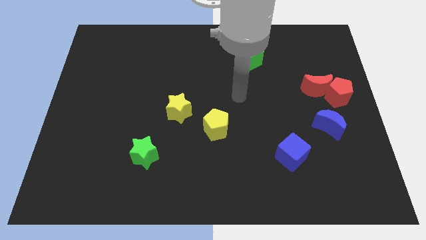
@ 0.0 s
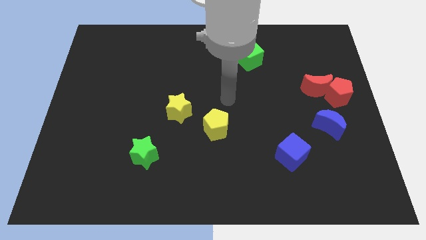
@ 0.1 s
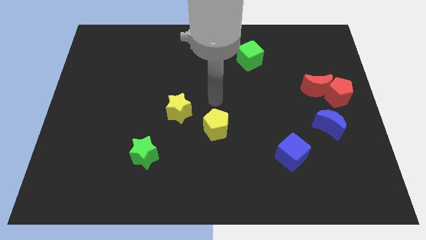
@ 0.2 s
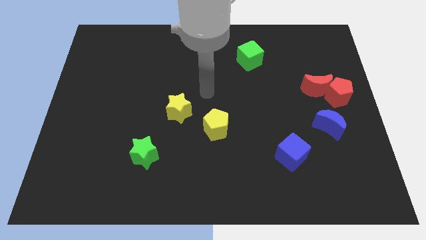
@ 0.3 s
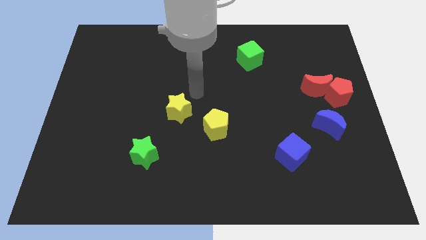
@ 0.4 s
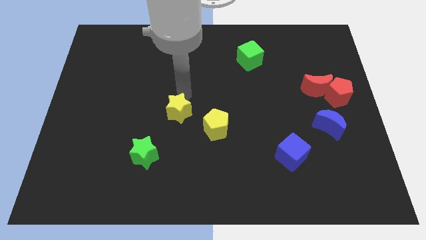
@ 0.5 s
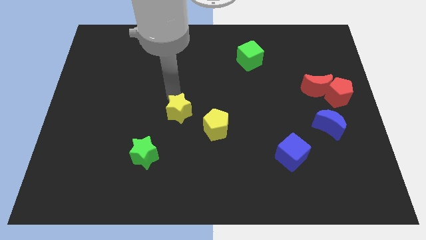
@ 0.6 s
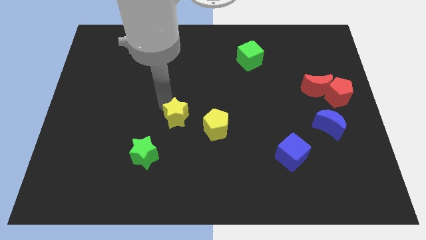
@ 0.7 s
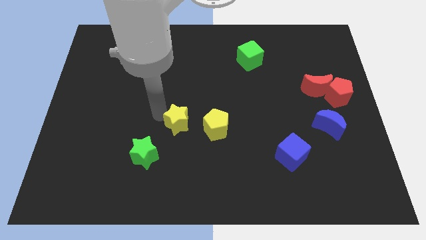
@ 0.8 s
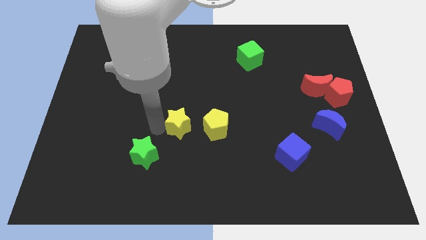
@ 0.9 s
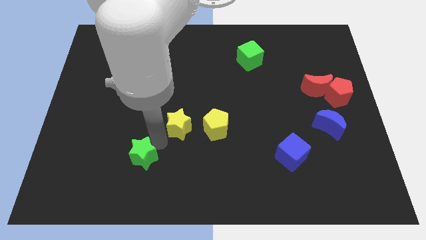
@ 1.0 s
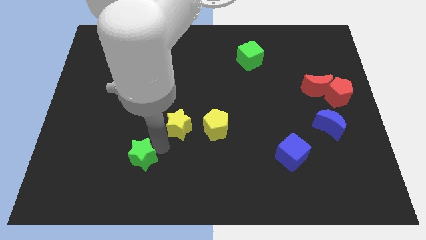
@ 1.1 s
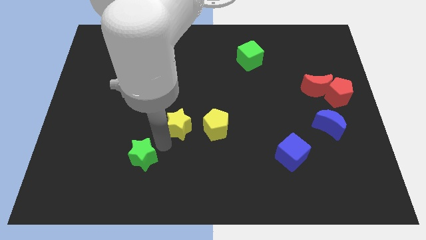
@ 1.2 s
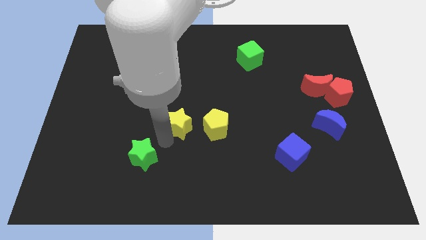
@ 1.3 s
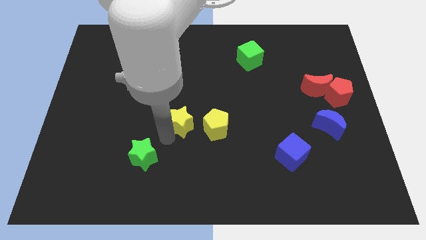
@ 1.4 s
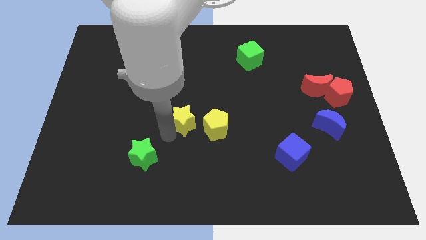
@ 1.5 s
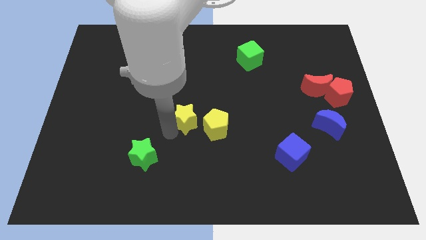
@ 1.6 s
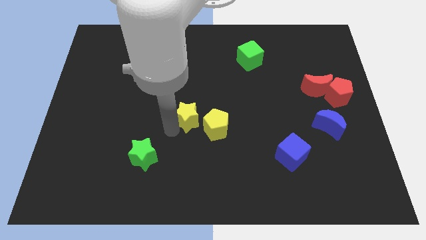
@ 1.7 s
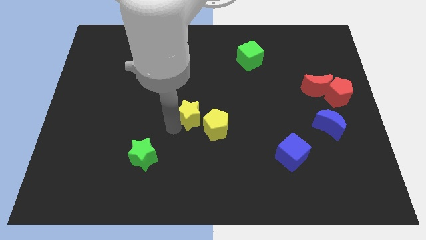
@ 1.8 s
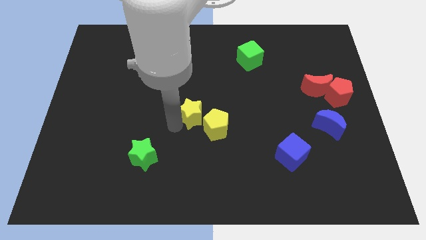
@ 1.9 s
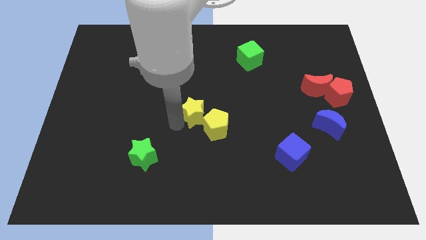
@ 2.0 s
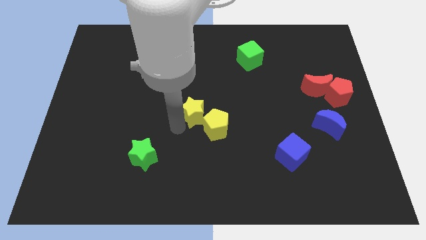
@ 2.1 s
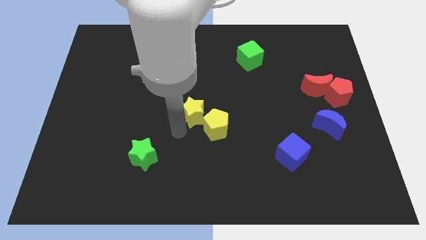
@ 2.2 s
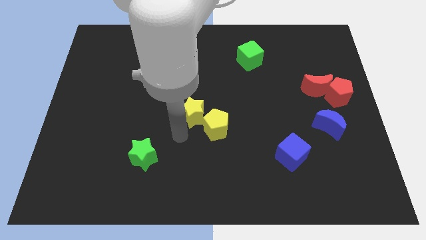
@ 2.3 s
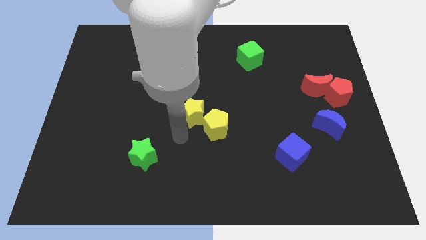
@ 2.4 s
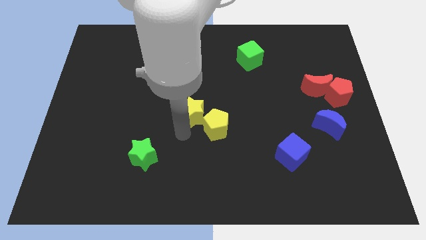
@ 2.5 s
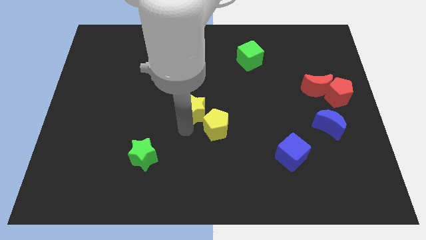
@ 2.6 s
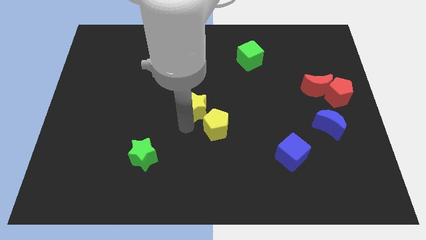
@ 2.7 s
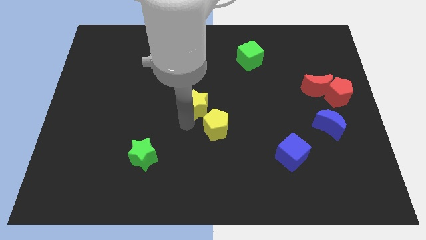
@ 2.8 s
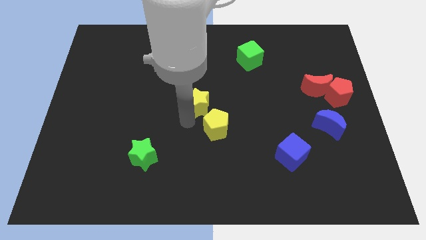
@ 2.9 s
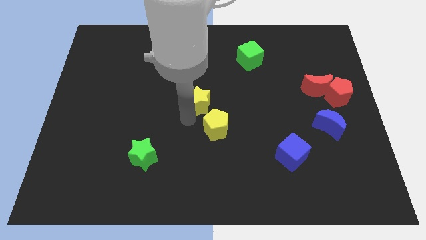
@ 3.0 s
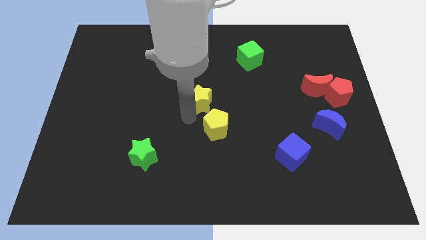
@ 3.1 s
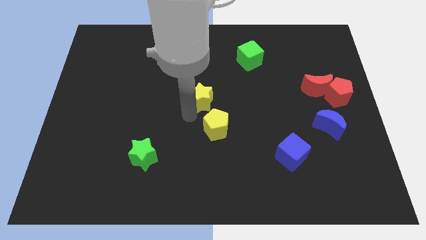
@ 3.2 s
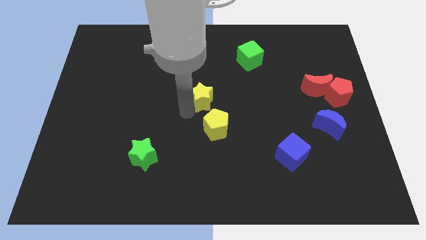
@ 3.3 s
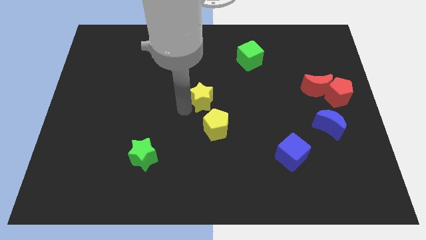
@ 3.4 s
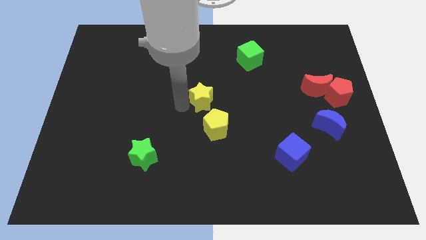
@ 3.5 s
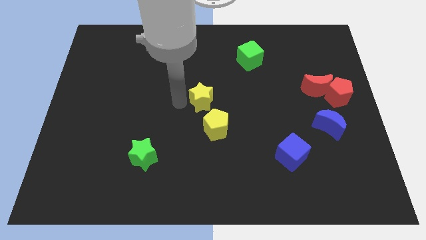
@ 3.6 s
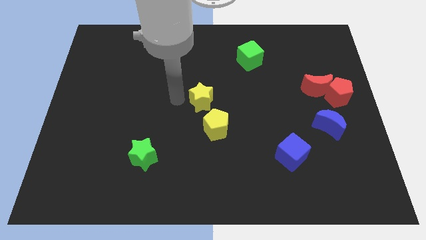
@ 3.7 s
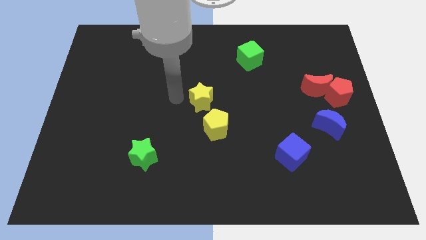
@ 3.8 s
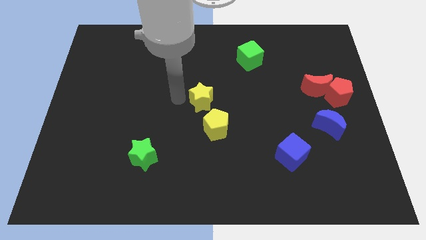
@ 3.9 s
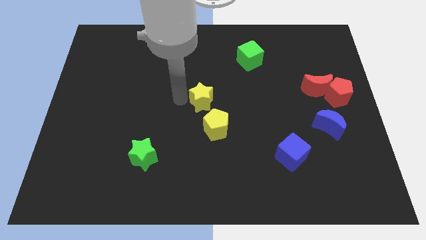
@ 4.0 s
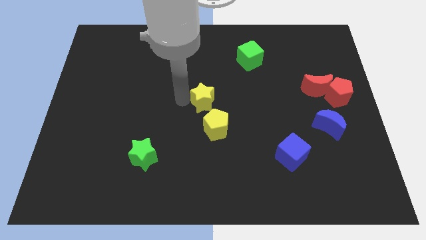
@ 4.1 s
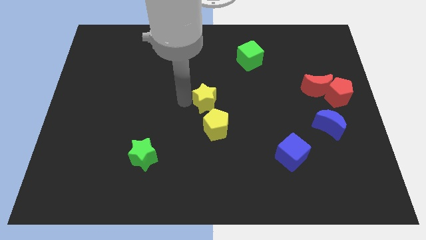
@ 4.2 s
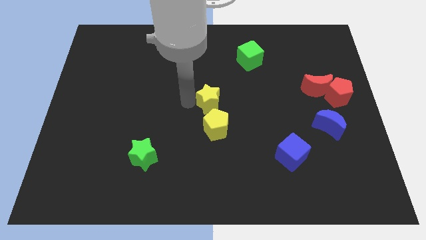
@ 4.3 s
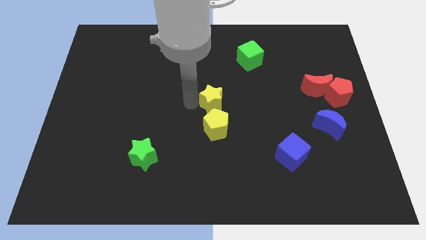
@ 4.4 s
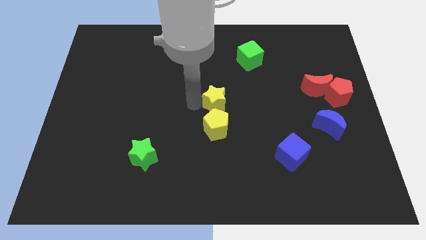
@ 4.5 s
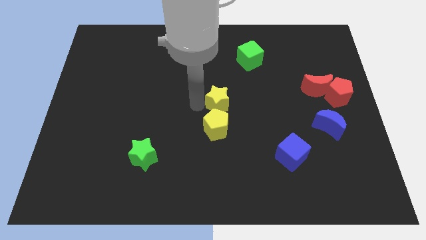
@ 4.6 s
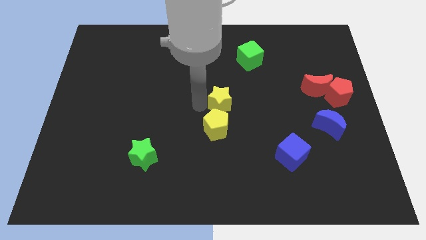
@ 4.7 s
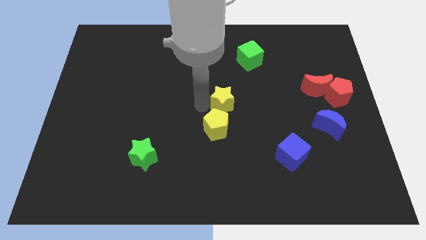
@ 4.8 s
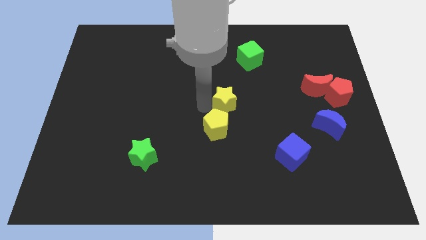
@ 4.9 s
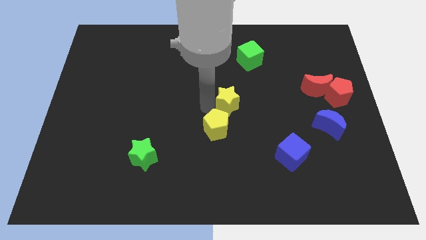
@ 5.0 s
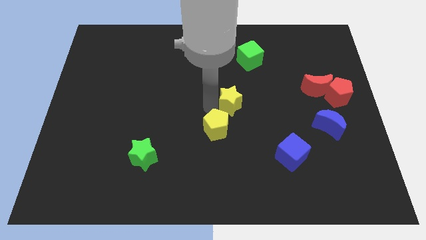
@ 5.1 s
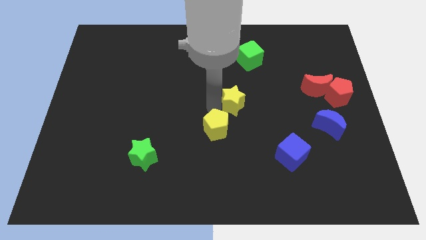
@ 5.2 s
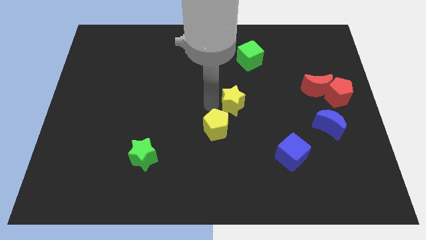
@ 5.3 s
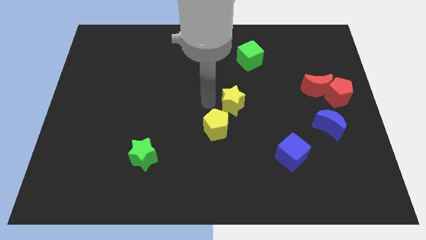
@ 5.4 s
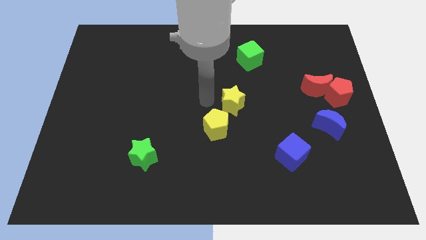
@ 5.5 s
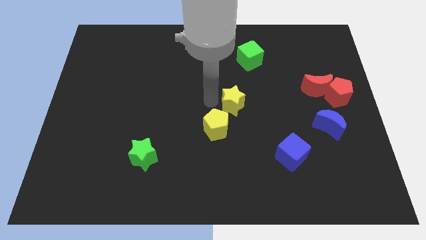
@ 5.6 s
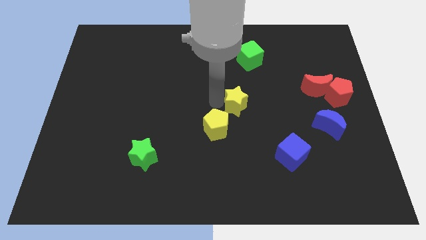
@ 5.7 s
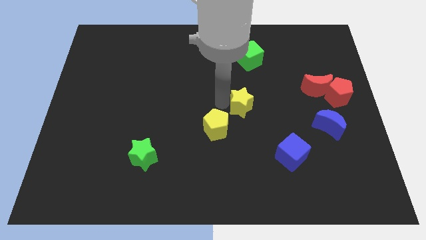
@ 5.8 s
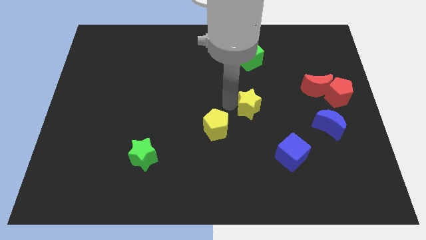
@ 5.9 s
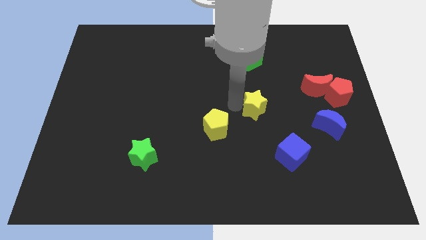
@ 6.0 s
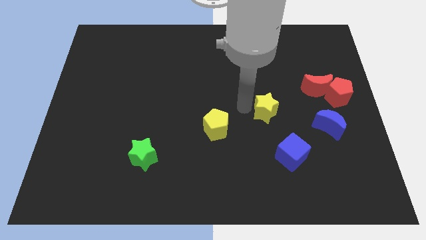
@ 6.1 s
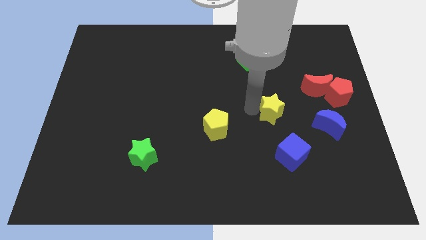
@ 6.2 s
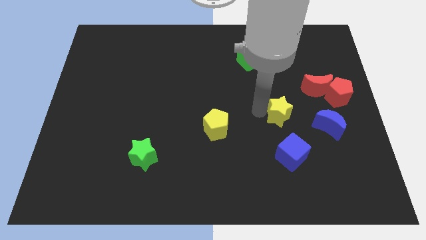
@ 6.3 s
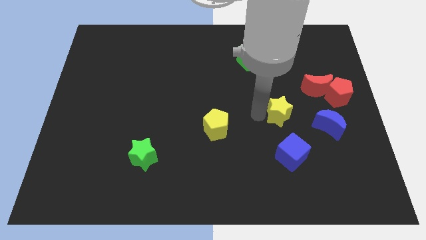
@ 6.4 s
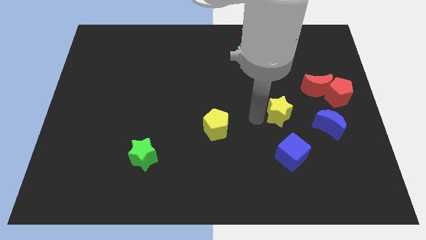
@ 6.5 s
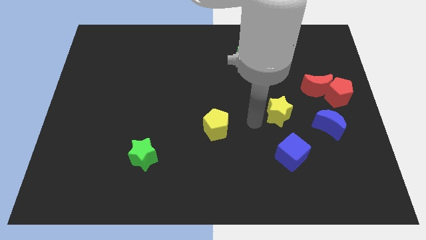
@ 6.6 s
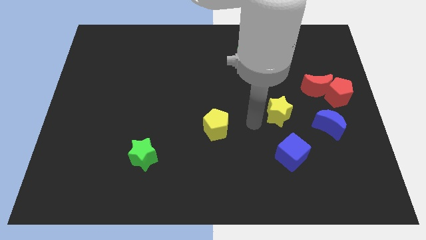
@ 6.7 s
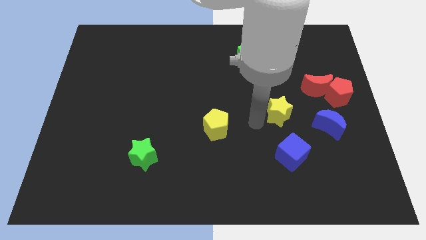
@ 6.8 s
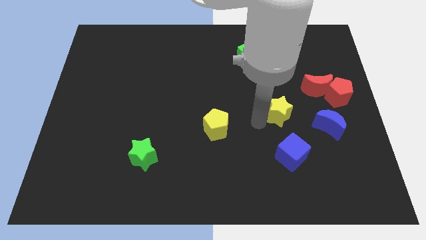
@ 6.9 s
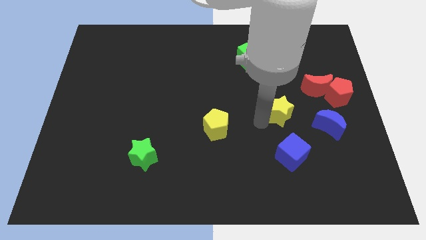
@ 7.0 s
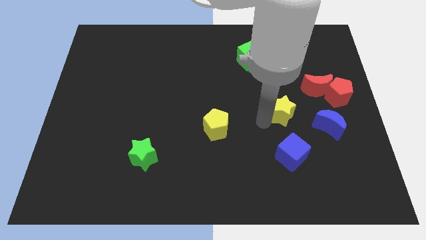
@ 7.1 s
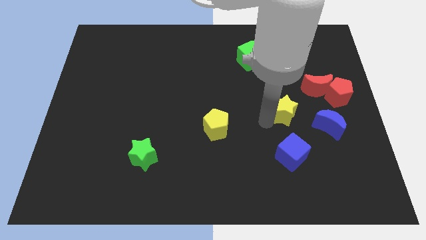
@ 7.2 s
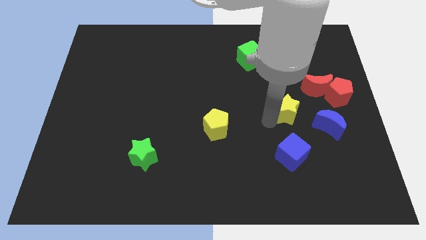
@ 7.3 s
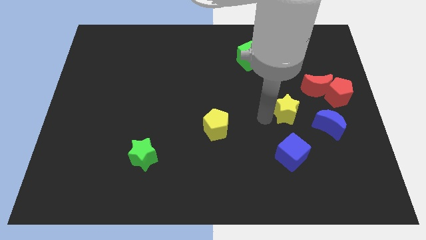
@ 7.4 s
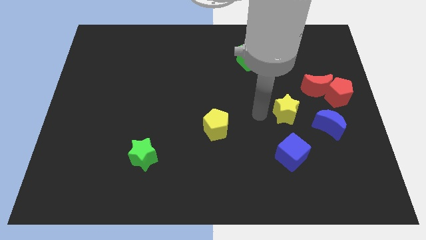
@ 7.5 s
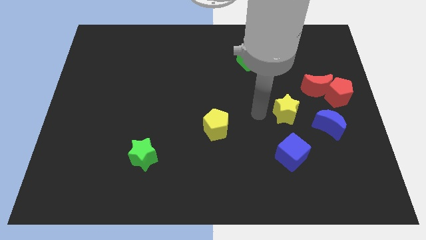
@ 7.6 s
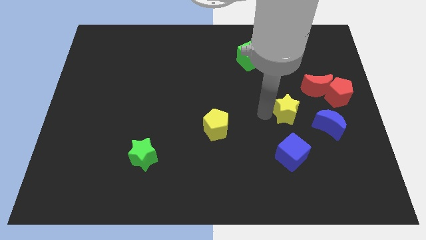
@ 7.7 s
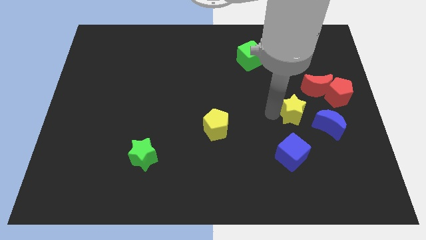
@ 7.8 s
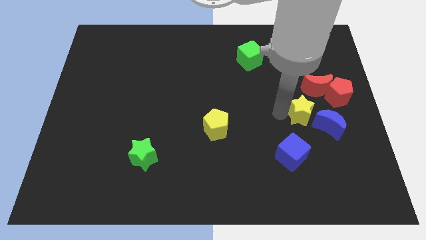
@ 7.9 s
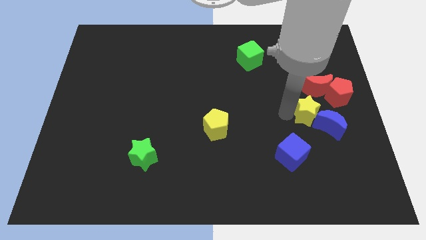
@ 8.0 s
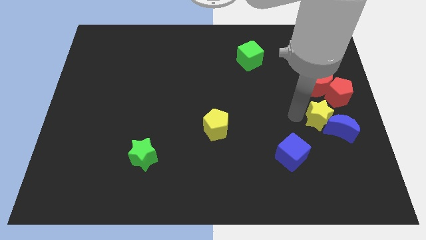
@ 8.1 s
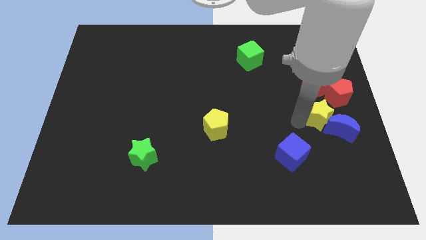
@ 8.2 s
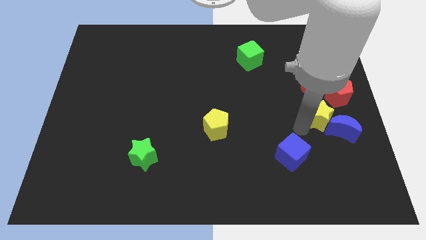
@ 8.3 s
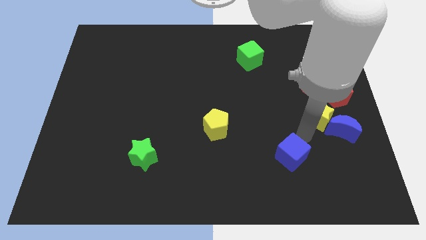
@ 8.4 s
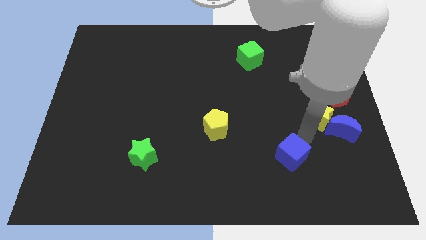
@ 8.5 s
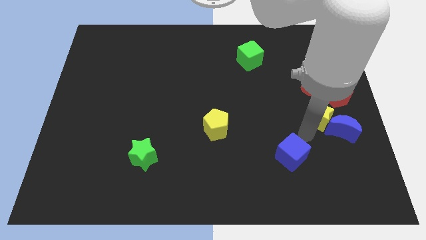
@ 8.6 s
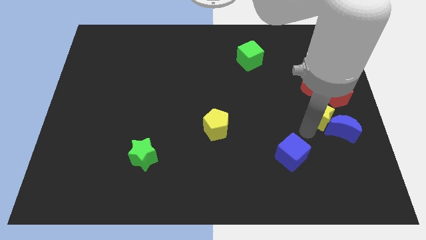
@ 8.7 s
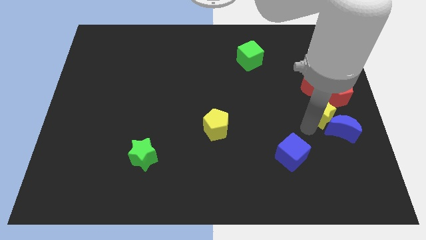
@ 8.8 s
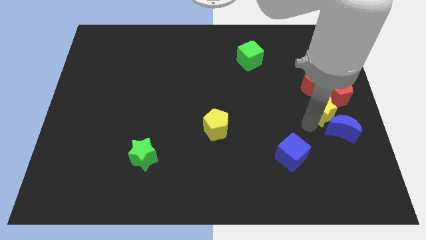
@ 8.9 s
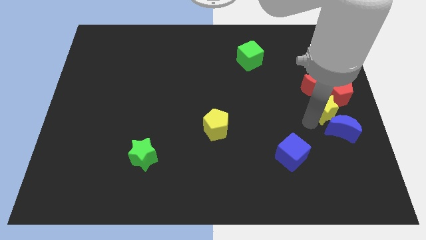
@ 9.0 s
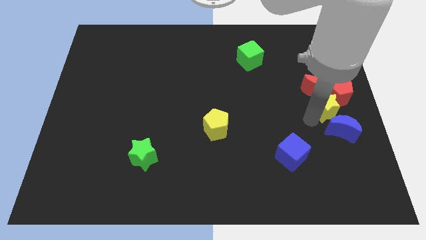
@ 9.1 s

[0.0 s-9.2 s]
slide the yellow star close to the red pentagon
